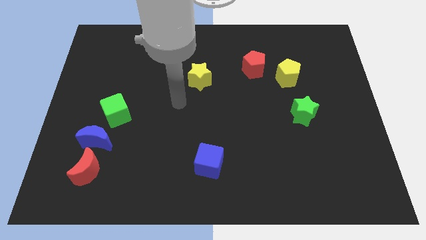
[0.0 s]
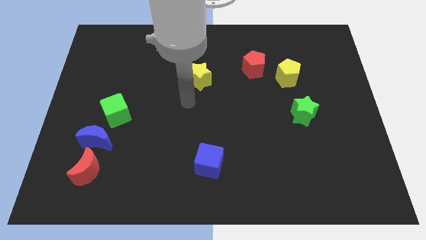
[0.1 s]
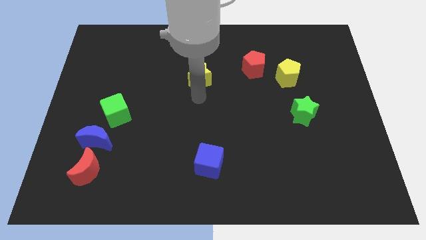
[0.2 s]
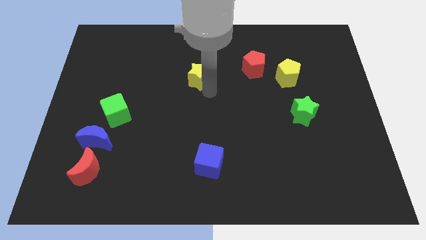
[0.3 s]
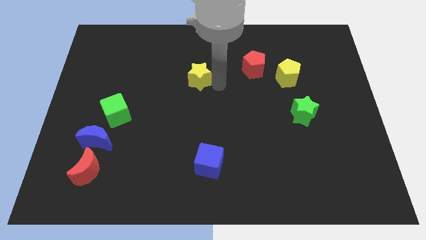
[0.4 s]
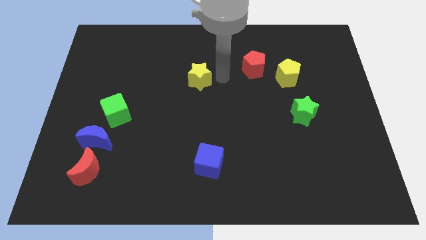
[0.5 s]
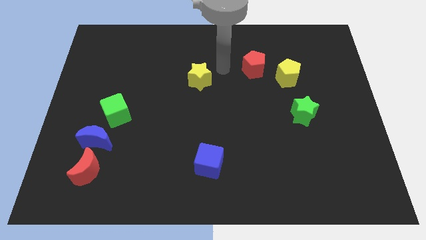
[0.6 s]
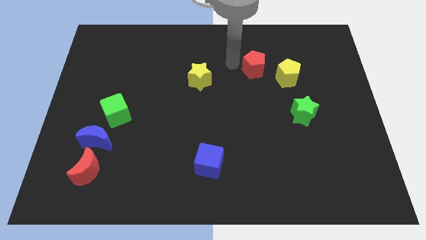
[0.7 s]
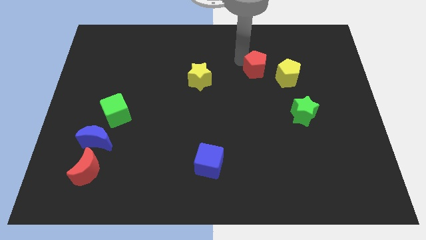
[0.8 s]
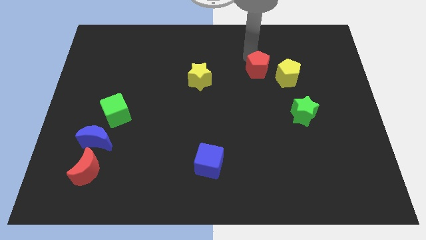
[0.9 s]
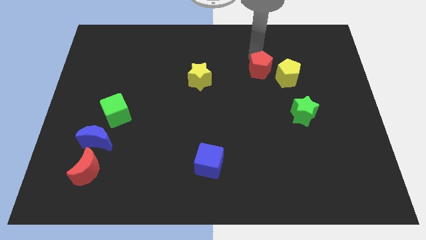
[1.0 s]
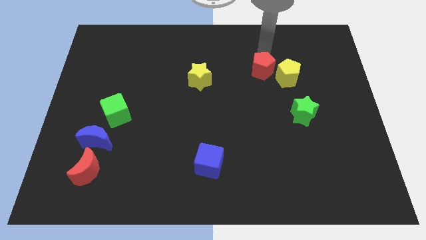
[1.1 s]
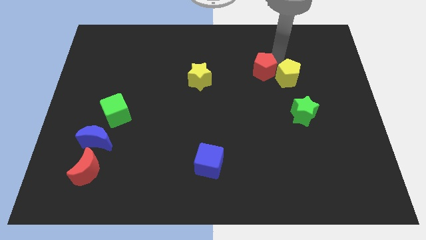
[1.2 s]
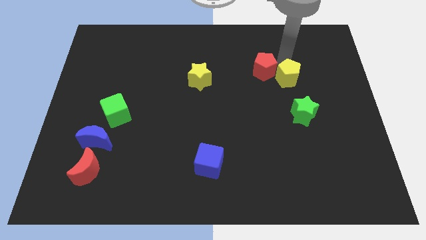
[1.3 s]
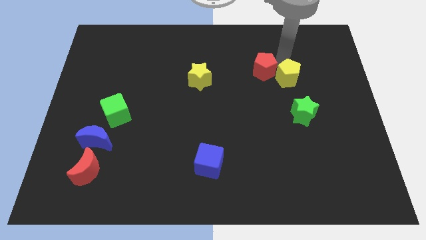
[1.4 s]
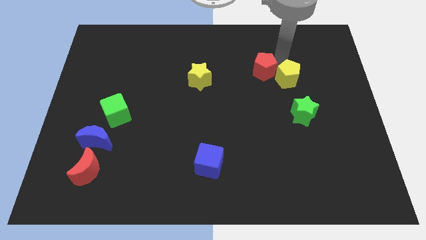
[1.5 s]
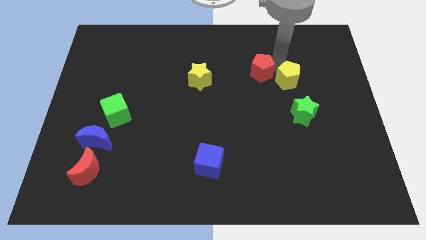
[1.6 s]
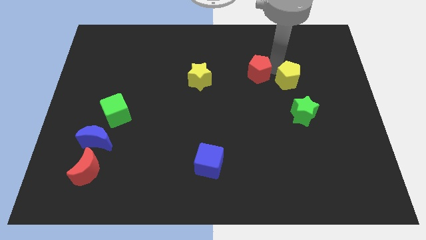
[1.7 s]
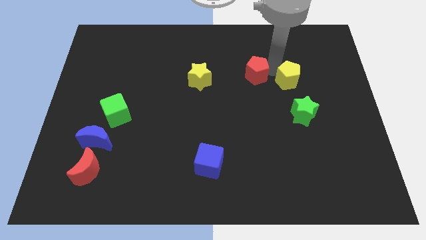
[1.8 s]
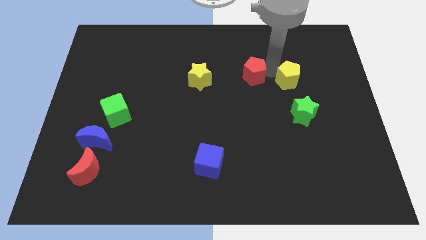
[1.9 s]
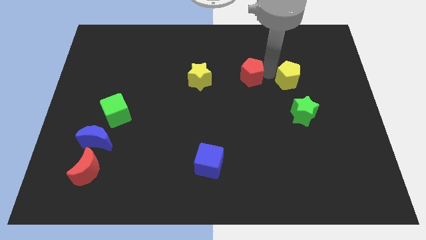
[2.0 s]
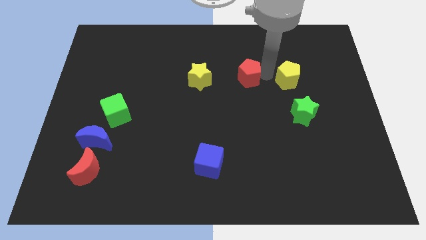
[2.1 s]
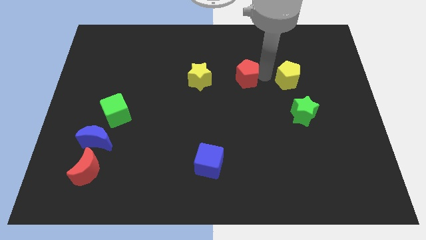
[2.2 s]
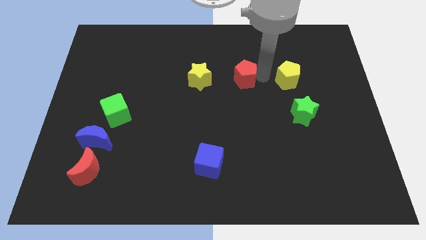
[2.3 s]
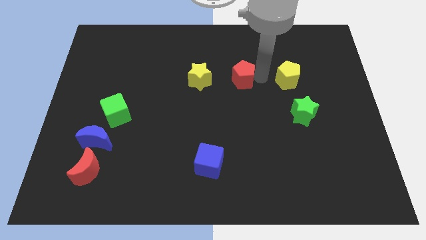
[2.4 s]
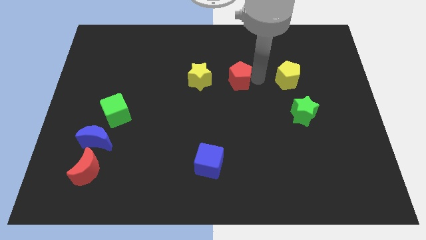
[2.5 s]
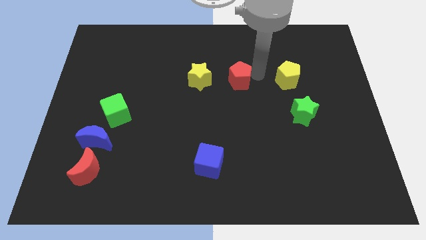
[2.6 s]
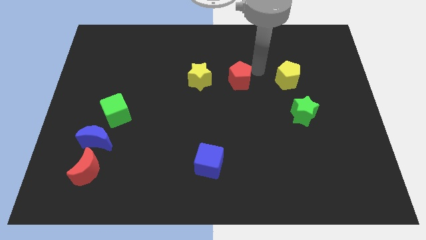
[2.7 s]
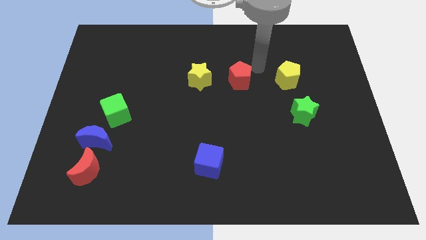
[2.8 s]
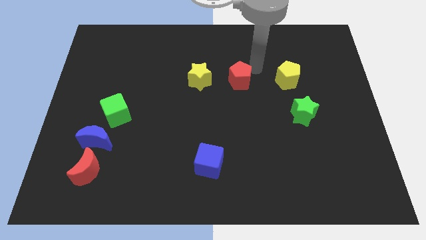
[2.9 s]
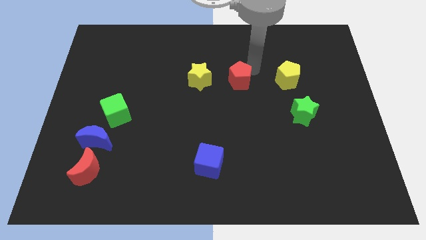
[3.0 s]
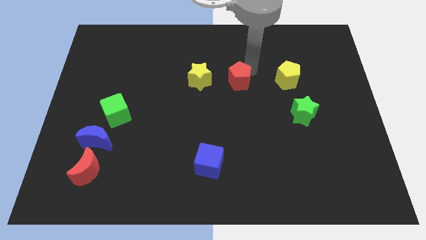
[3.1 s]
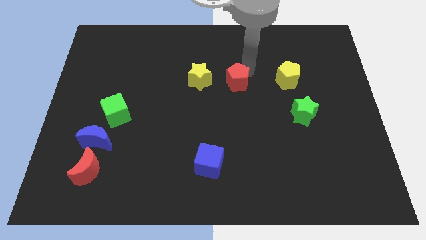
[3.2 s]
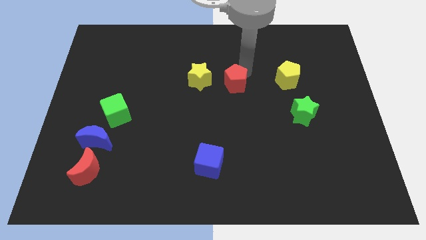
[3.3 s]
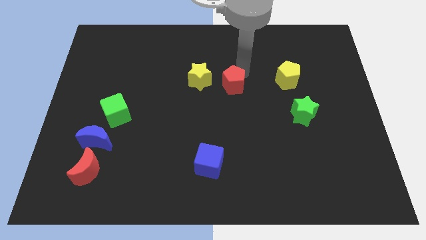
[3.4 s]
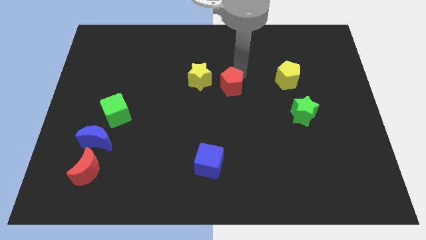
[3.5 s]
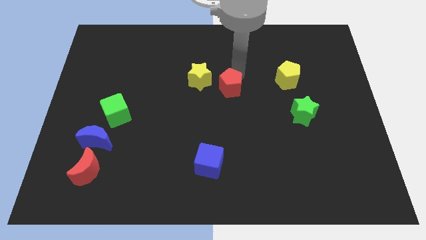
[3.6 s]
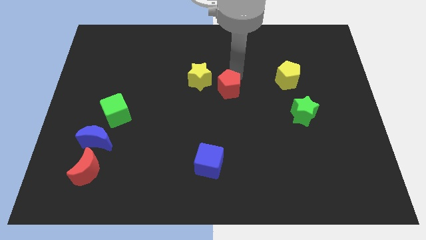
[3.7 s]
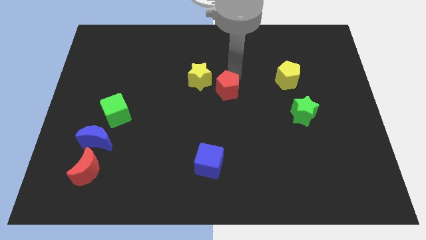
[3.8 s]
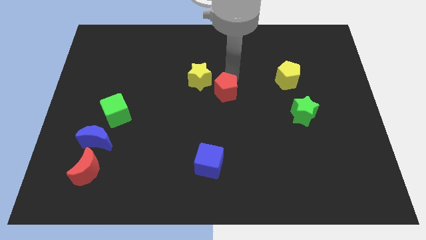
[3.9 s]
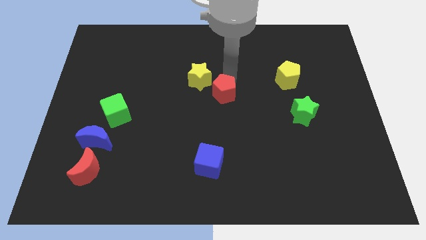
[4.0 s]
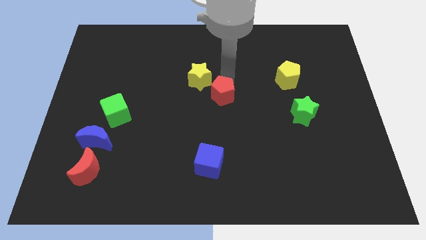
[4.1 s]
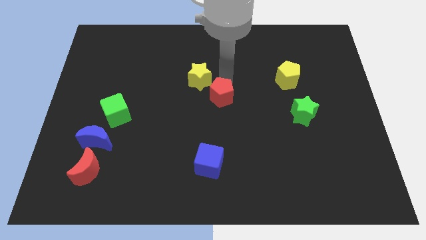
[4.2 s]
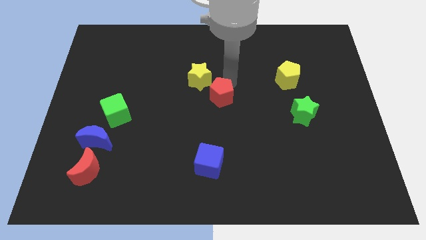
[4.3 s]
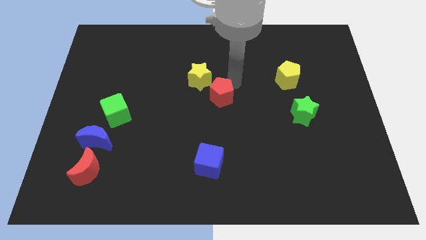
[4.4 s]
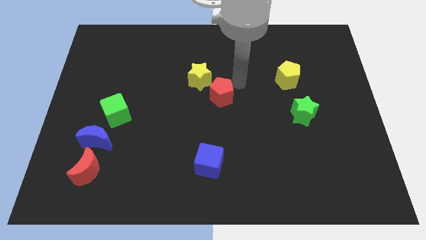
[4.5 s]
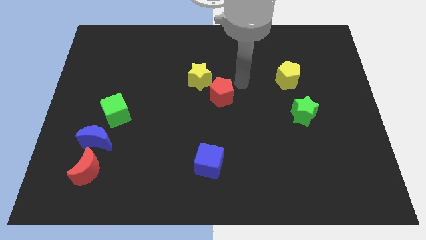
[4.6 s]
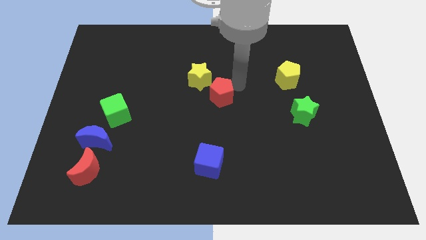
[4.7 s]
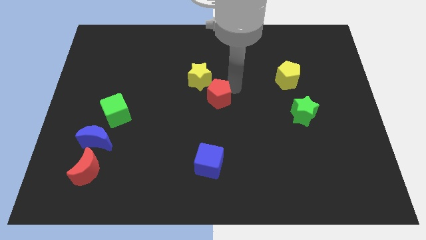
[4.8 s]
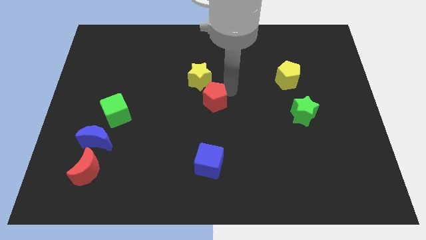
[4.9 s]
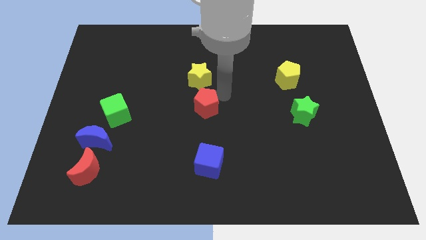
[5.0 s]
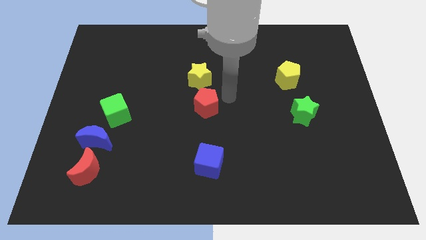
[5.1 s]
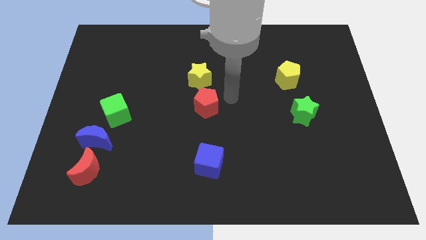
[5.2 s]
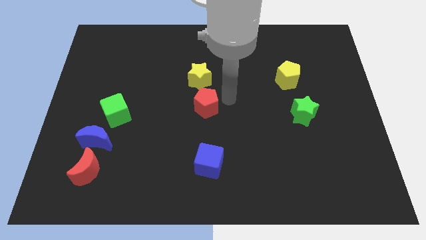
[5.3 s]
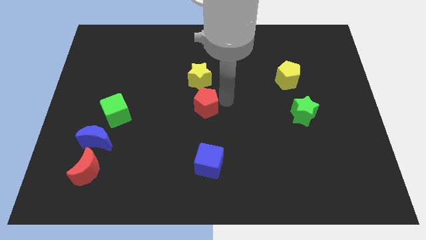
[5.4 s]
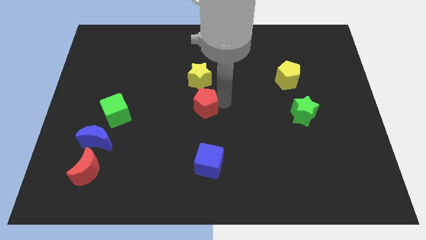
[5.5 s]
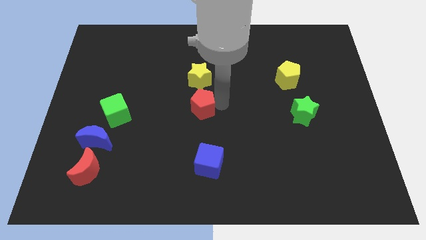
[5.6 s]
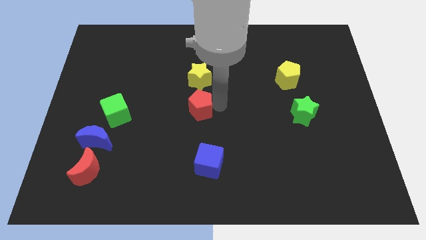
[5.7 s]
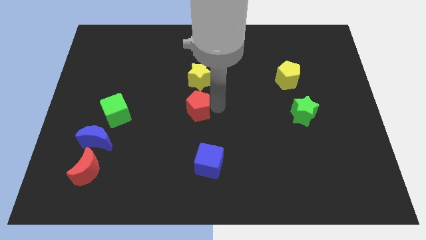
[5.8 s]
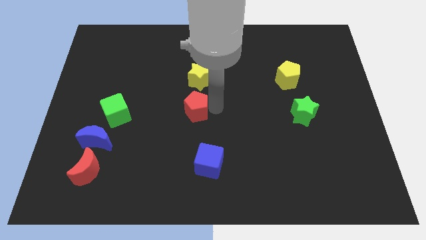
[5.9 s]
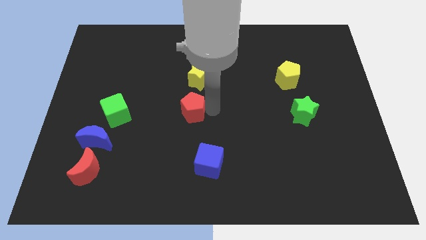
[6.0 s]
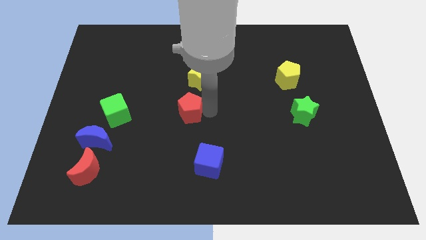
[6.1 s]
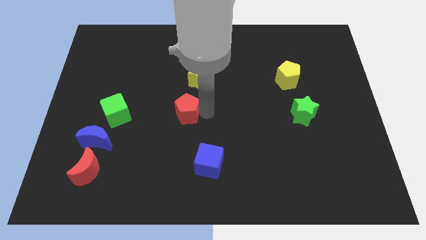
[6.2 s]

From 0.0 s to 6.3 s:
push the red pentagon to the right side of the green cube

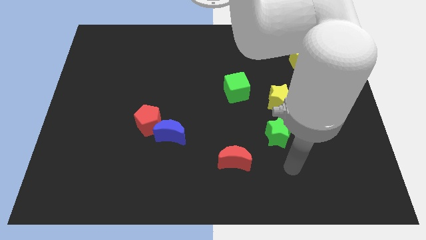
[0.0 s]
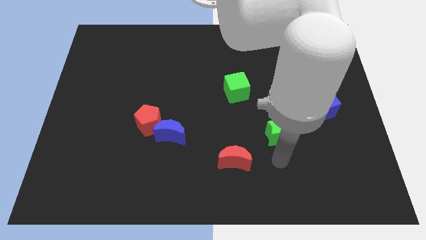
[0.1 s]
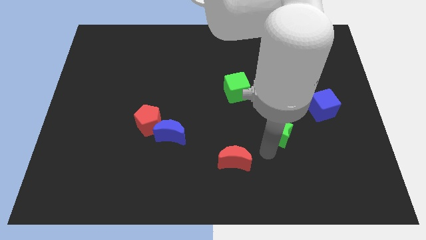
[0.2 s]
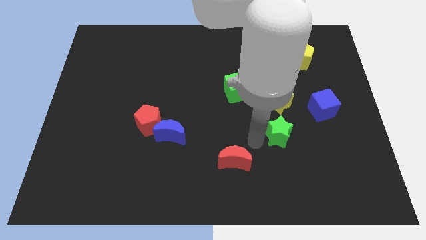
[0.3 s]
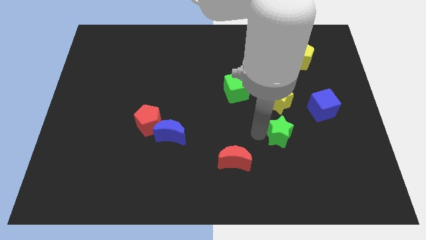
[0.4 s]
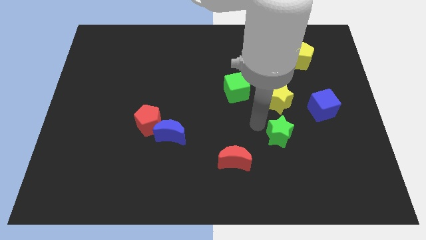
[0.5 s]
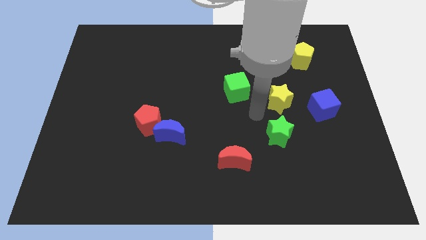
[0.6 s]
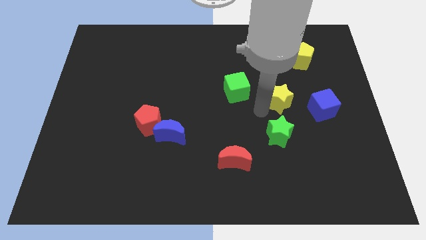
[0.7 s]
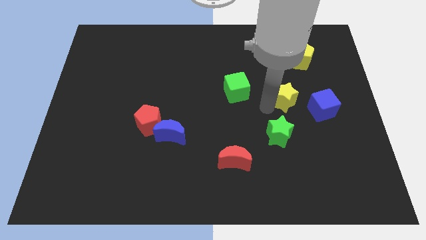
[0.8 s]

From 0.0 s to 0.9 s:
move the yellow star diagonally up and to the left of the blue cube
